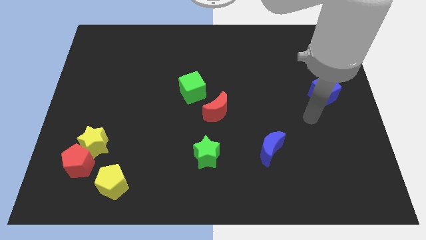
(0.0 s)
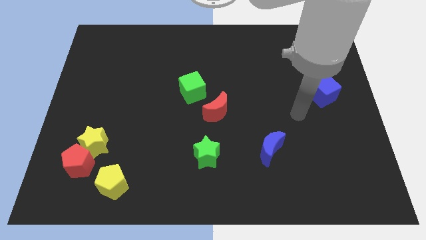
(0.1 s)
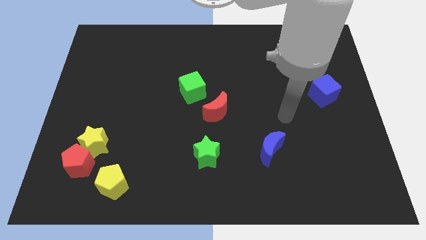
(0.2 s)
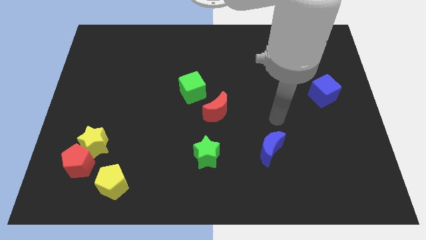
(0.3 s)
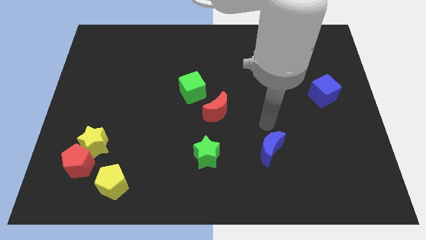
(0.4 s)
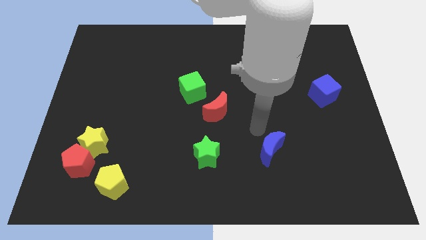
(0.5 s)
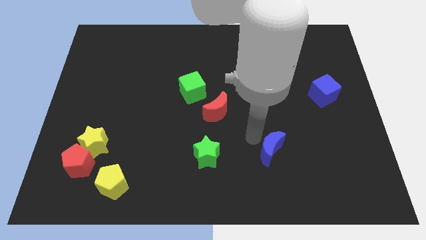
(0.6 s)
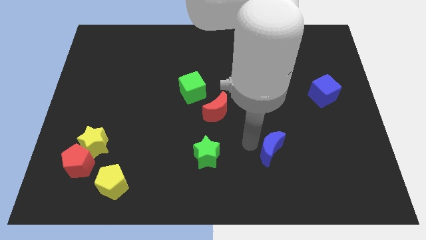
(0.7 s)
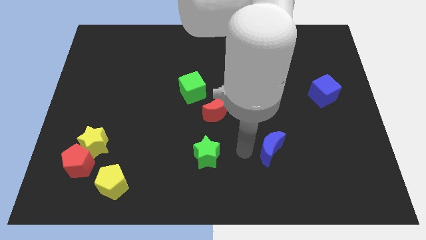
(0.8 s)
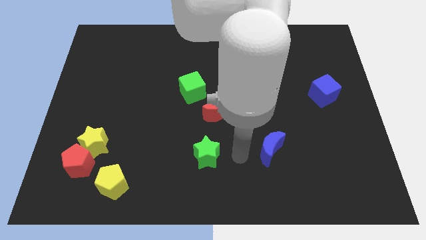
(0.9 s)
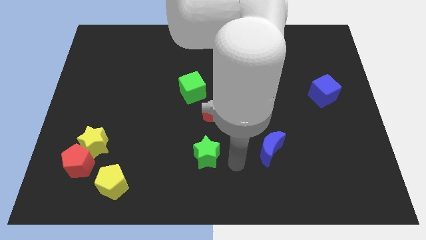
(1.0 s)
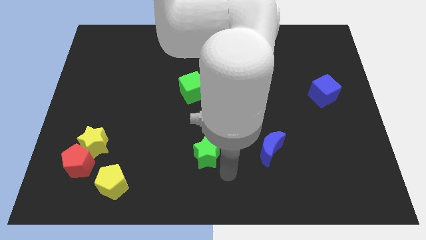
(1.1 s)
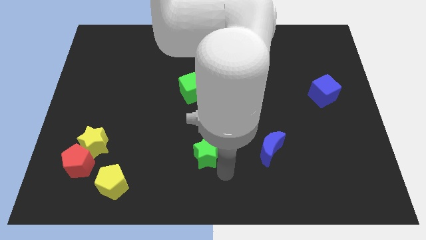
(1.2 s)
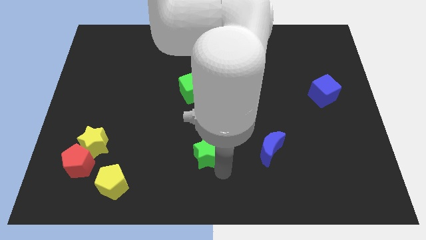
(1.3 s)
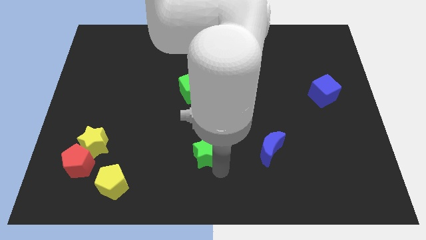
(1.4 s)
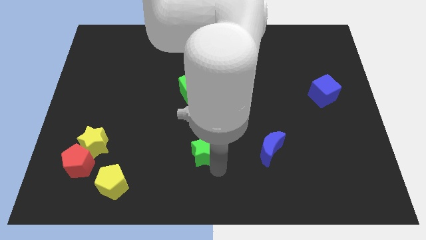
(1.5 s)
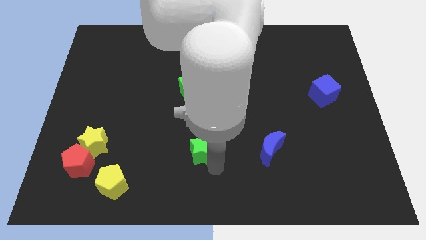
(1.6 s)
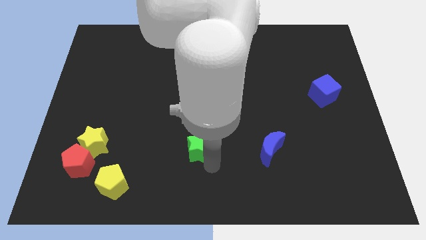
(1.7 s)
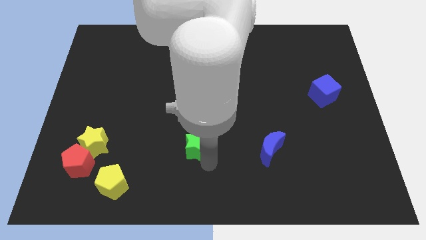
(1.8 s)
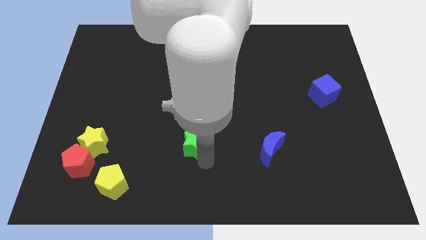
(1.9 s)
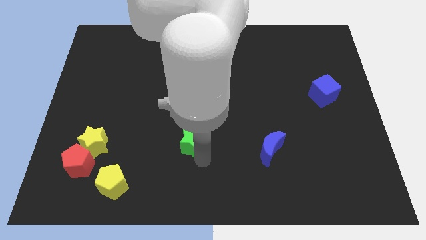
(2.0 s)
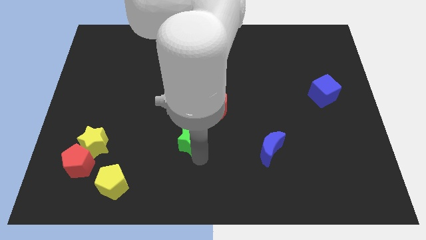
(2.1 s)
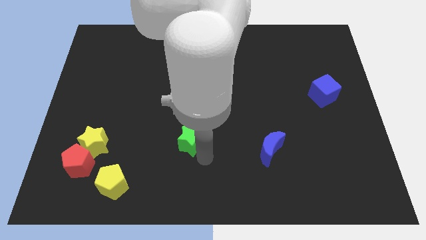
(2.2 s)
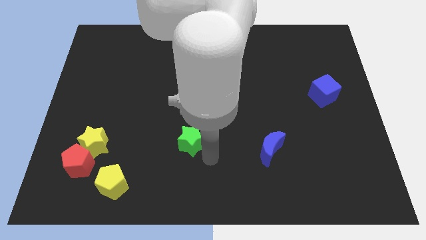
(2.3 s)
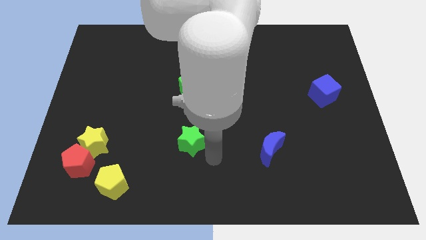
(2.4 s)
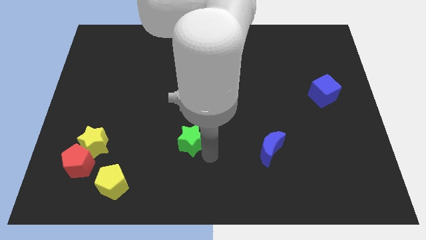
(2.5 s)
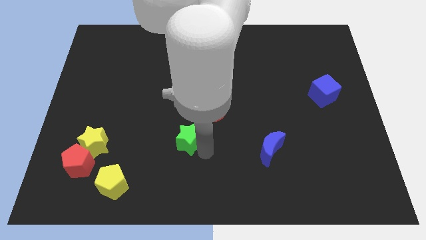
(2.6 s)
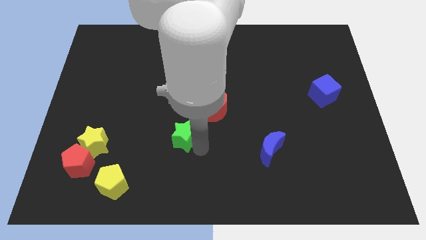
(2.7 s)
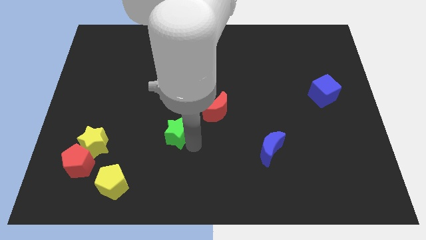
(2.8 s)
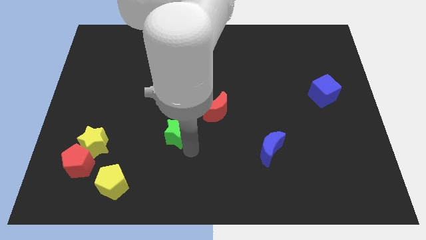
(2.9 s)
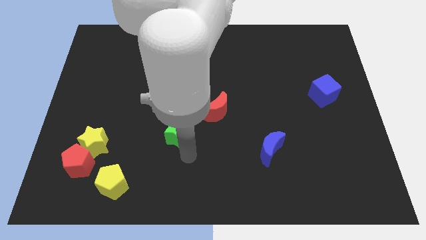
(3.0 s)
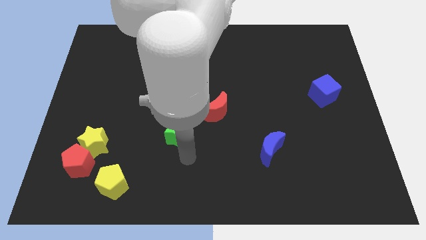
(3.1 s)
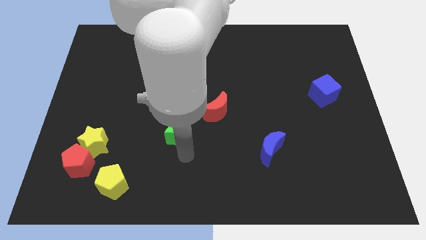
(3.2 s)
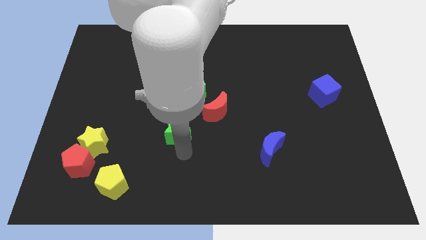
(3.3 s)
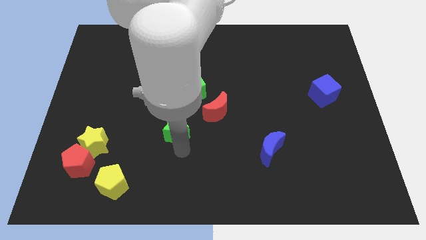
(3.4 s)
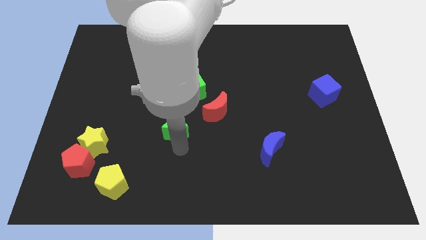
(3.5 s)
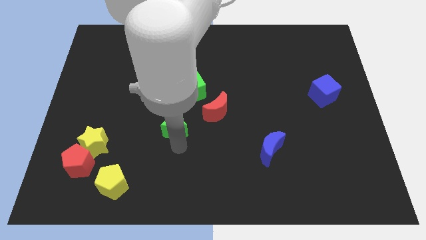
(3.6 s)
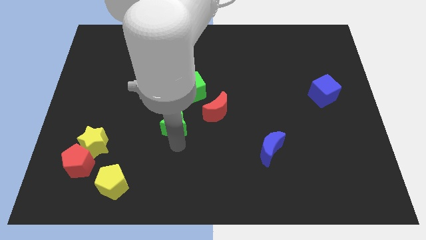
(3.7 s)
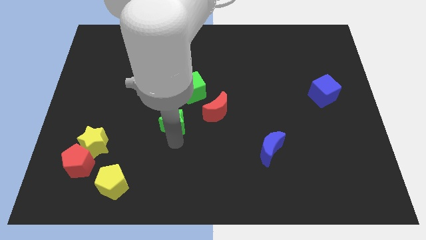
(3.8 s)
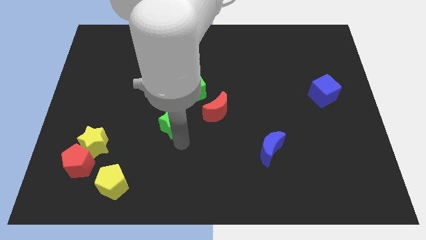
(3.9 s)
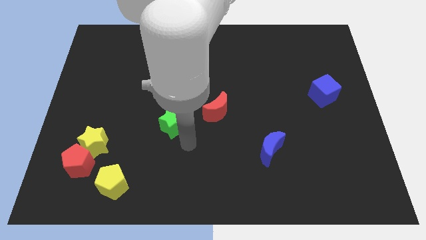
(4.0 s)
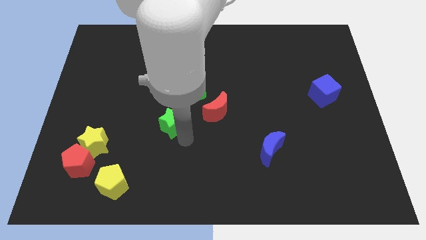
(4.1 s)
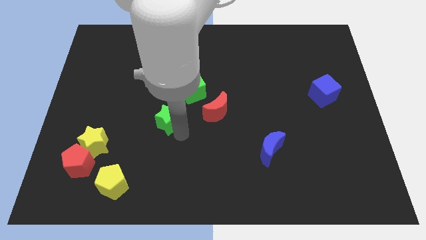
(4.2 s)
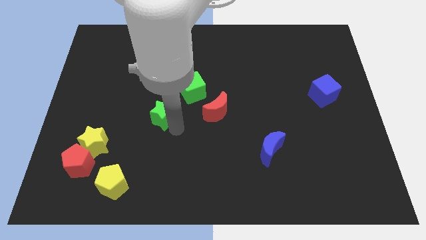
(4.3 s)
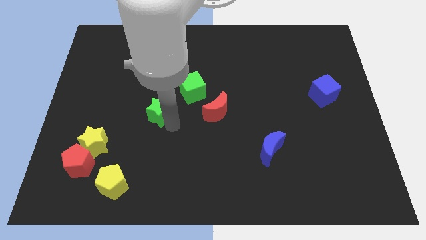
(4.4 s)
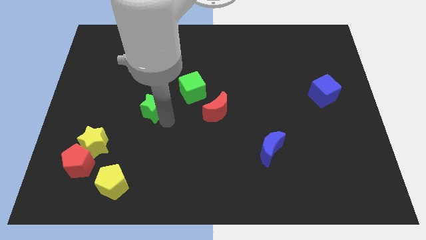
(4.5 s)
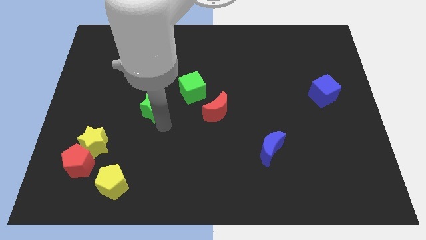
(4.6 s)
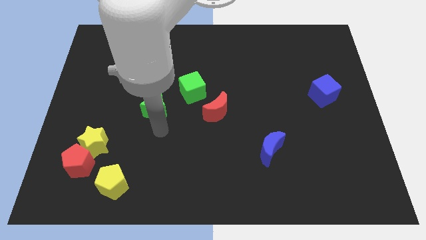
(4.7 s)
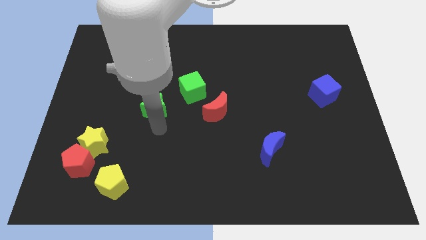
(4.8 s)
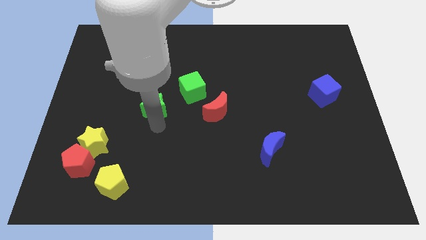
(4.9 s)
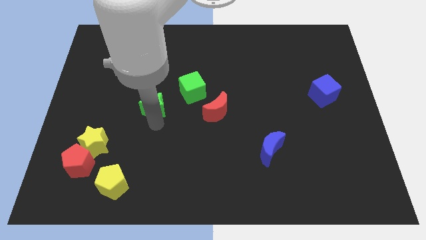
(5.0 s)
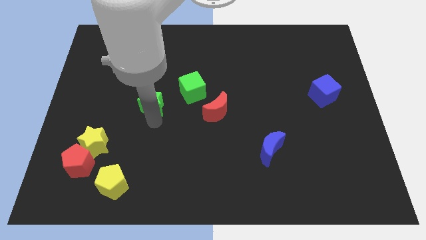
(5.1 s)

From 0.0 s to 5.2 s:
push the green star to the left of the green cube

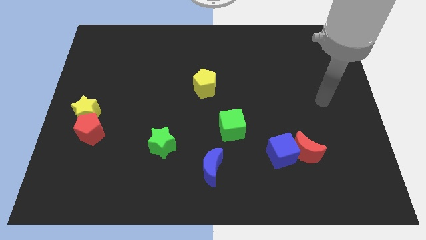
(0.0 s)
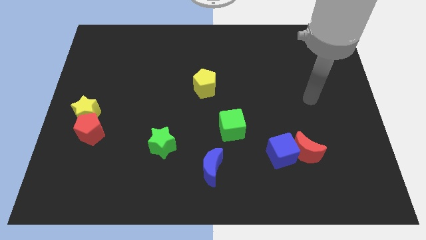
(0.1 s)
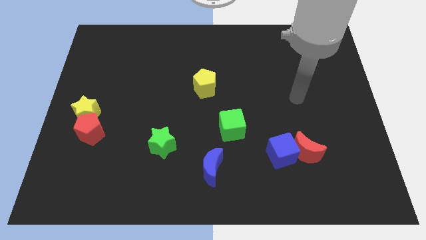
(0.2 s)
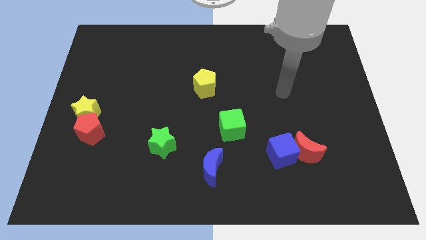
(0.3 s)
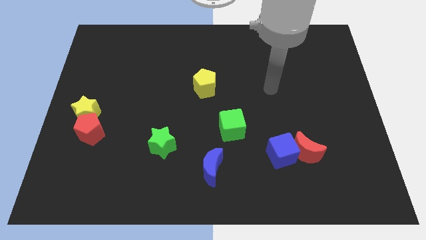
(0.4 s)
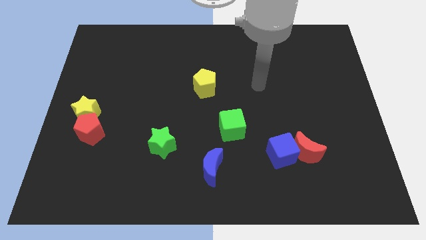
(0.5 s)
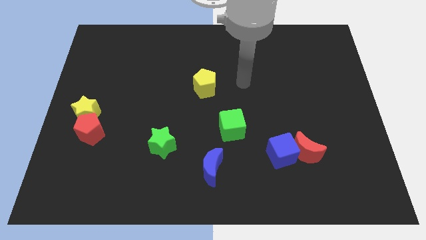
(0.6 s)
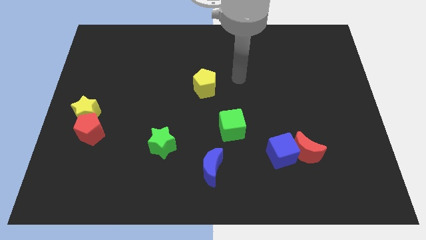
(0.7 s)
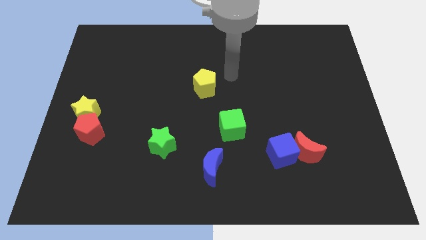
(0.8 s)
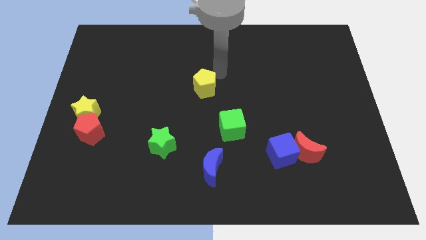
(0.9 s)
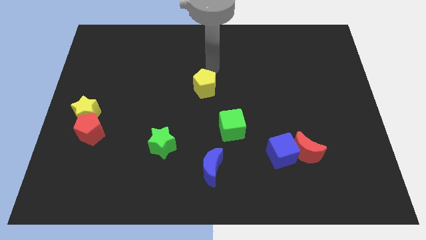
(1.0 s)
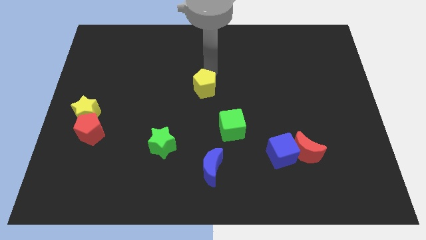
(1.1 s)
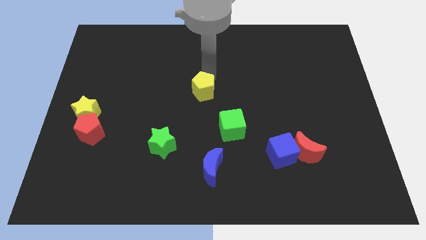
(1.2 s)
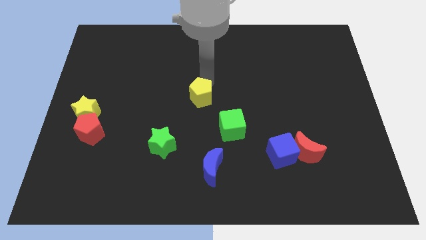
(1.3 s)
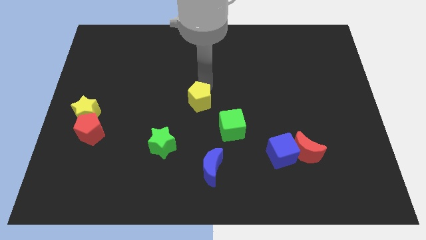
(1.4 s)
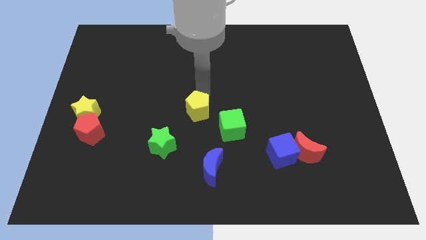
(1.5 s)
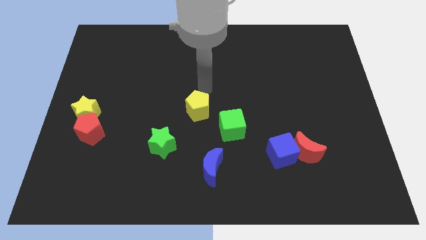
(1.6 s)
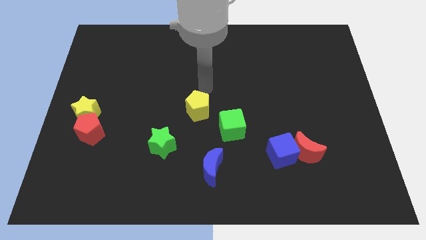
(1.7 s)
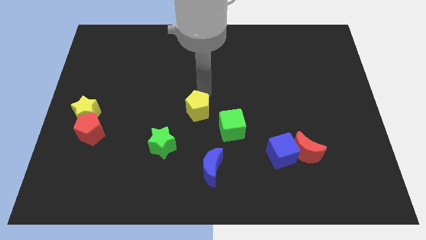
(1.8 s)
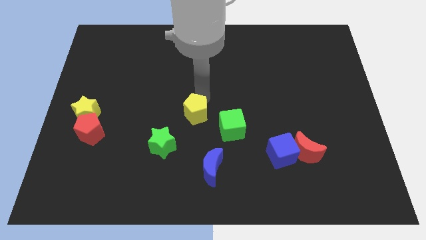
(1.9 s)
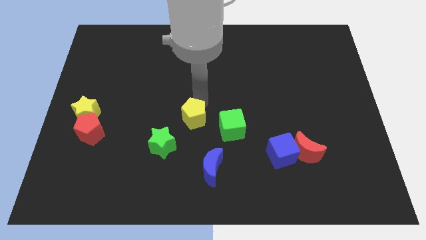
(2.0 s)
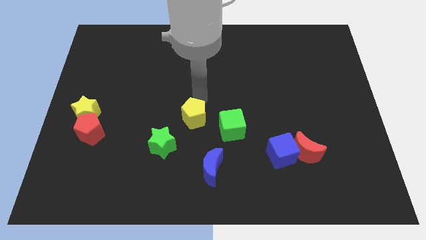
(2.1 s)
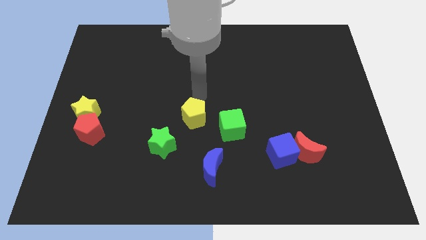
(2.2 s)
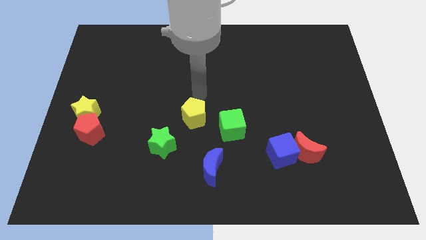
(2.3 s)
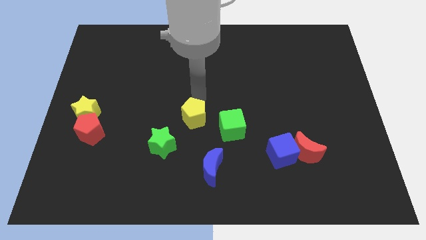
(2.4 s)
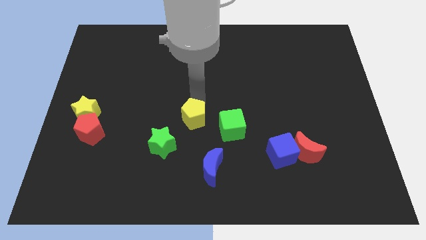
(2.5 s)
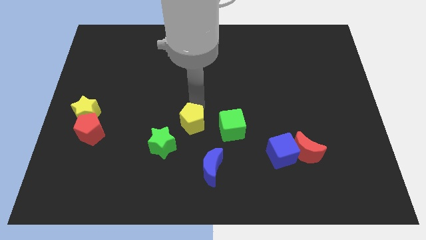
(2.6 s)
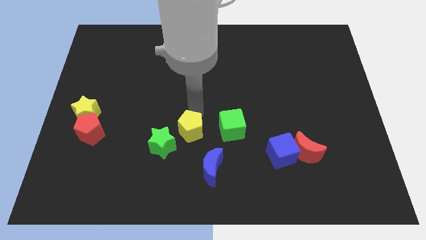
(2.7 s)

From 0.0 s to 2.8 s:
move the yellow pentagon diagonally up and to the left of the blue moon

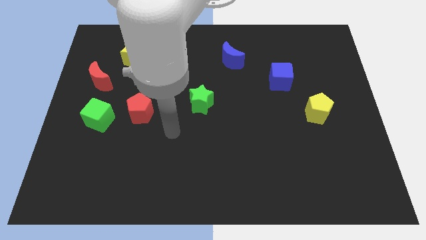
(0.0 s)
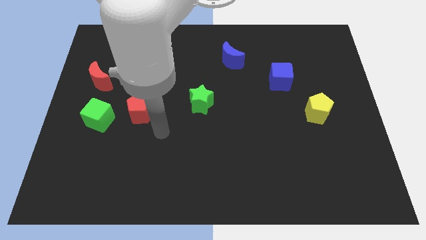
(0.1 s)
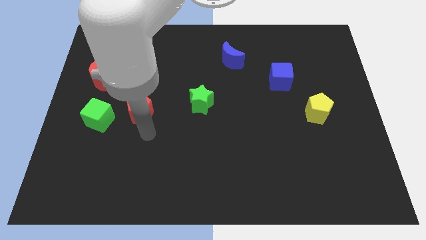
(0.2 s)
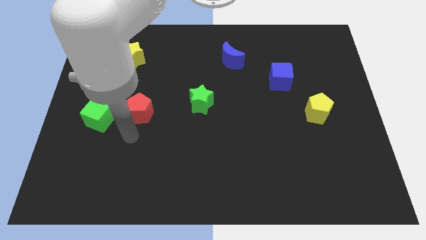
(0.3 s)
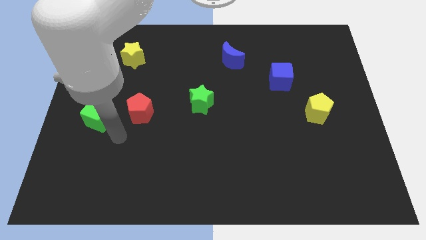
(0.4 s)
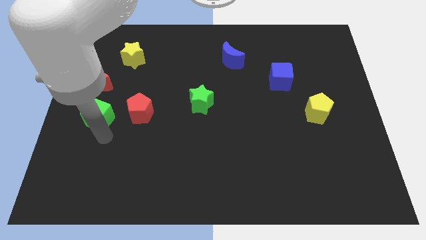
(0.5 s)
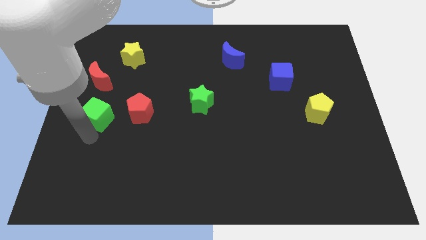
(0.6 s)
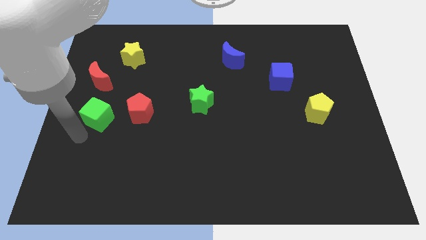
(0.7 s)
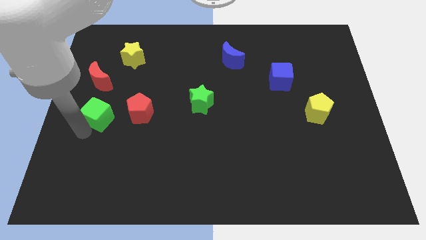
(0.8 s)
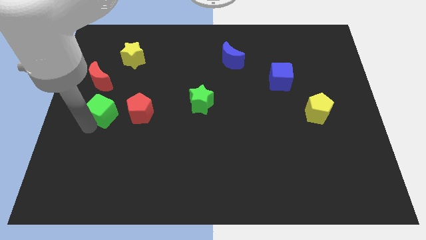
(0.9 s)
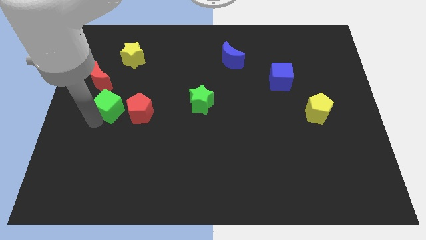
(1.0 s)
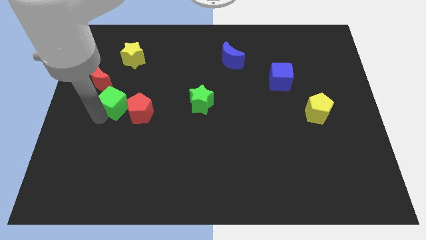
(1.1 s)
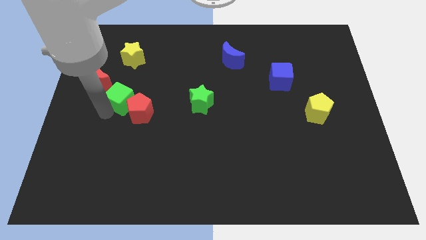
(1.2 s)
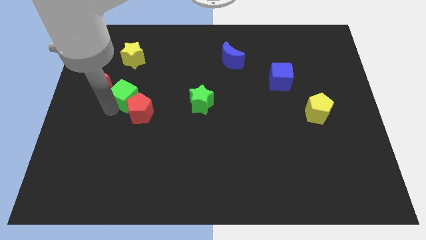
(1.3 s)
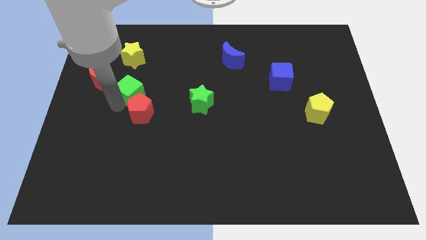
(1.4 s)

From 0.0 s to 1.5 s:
move the green cube right of the red moon
